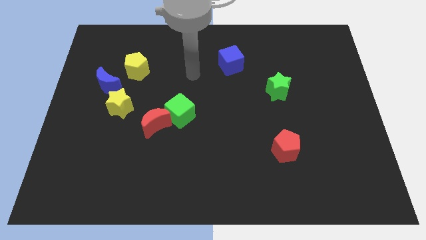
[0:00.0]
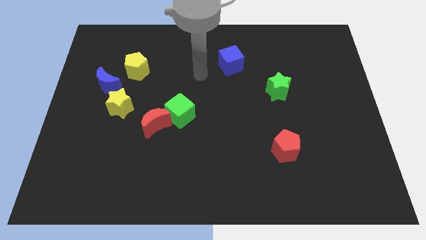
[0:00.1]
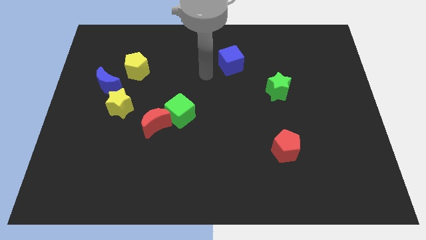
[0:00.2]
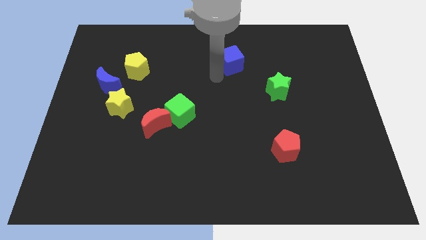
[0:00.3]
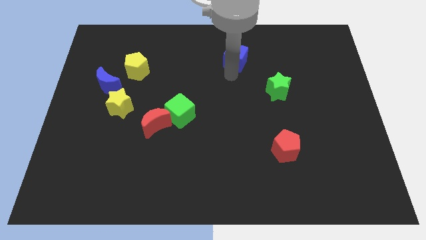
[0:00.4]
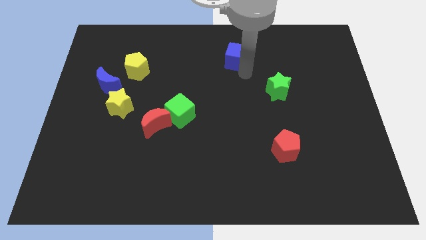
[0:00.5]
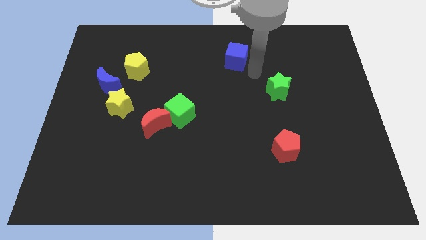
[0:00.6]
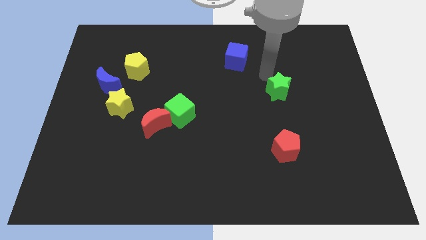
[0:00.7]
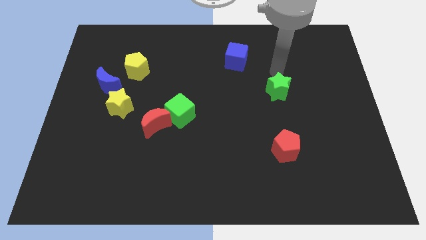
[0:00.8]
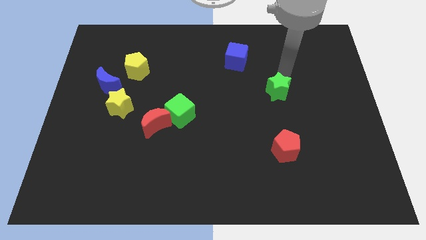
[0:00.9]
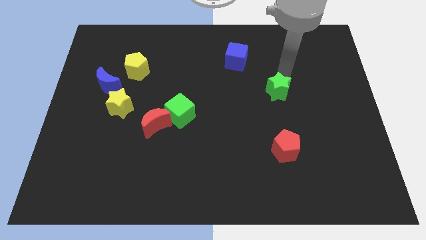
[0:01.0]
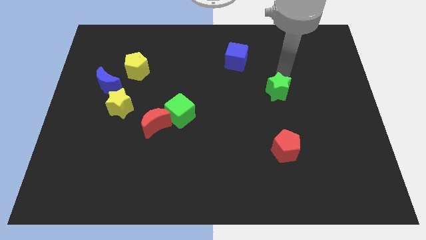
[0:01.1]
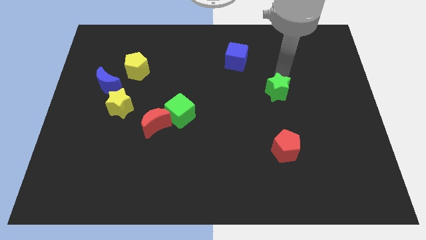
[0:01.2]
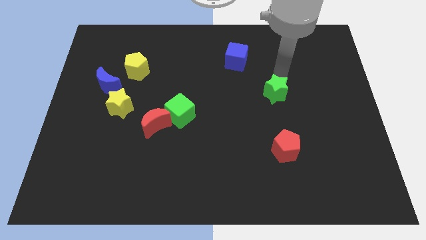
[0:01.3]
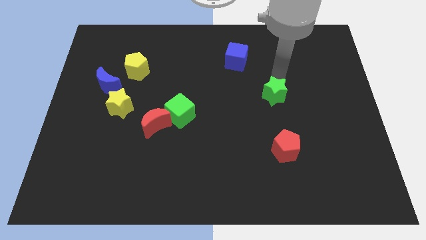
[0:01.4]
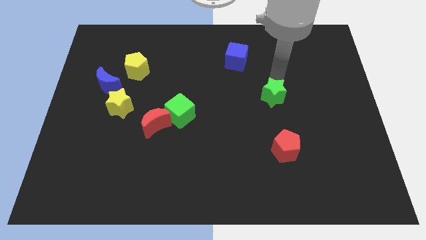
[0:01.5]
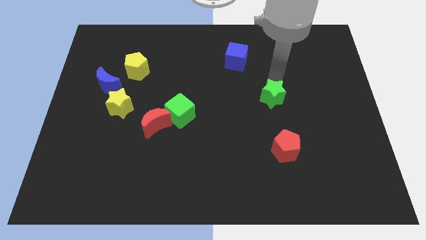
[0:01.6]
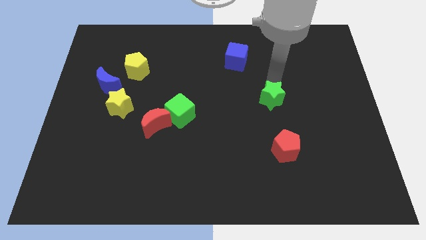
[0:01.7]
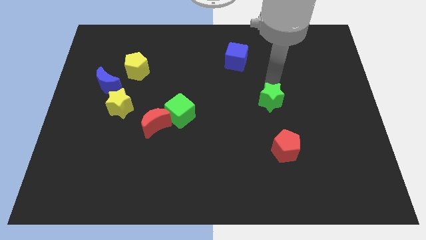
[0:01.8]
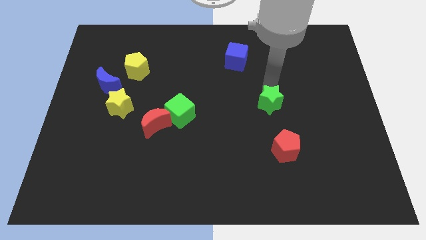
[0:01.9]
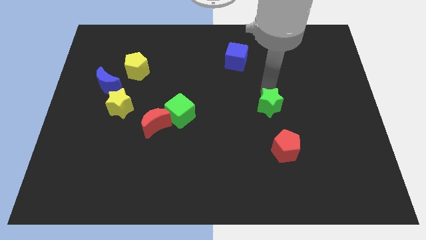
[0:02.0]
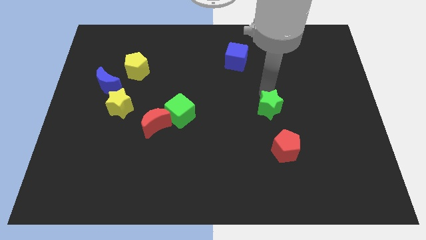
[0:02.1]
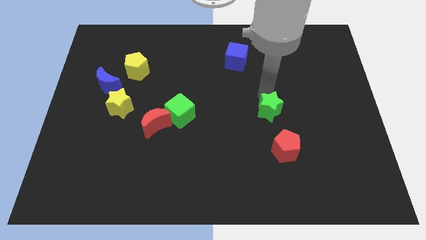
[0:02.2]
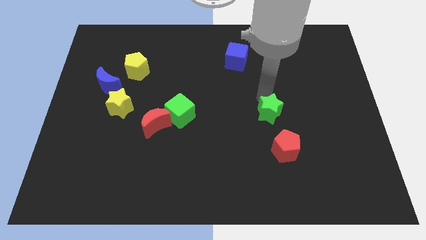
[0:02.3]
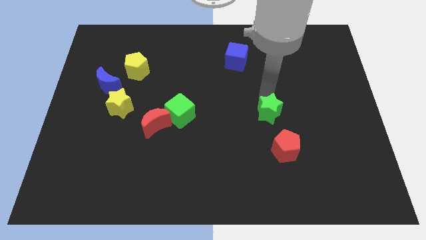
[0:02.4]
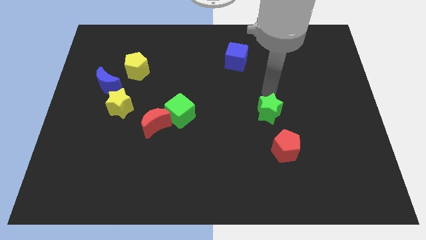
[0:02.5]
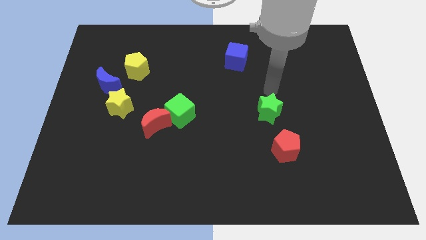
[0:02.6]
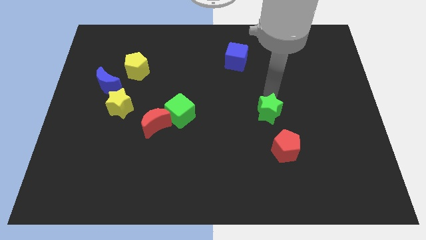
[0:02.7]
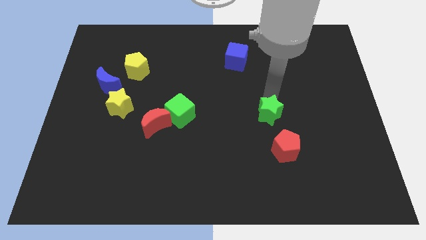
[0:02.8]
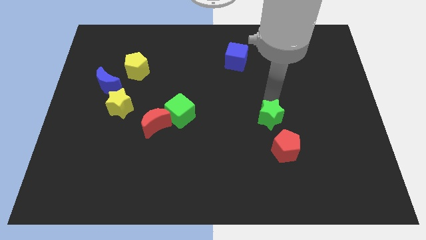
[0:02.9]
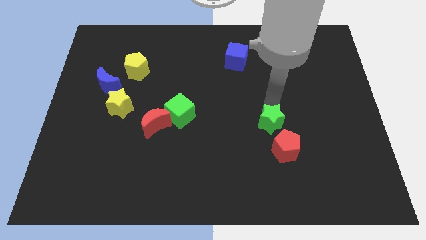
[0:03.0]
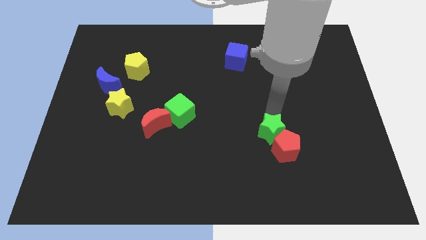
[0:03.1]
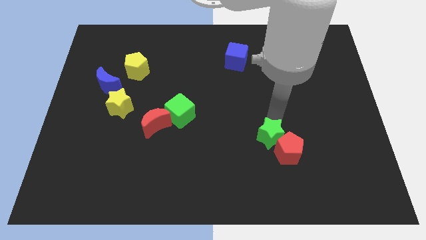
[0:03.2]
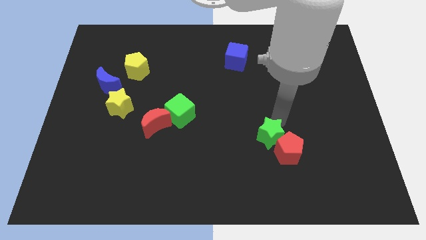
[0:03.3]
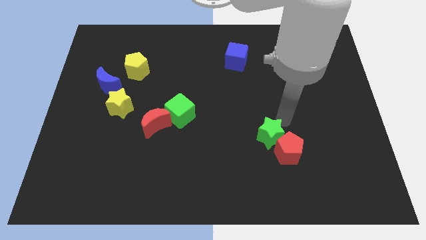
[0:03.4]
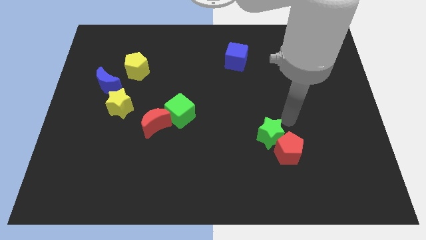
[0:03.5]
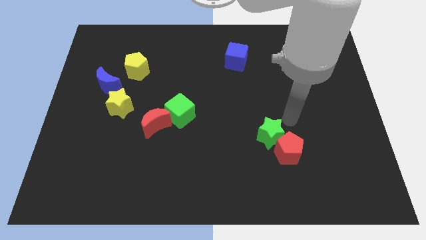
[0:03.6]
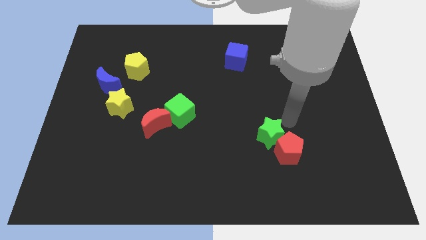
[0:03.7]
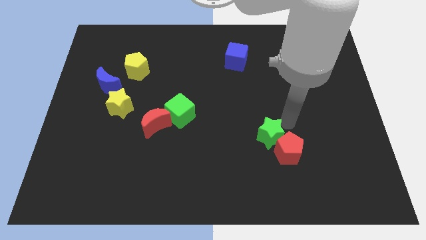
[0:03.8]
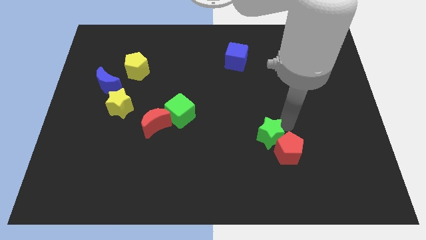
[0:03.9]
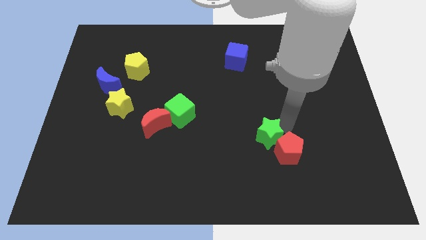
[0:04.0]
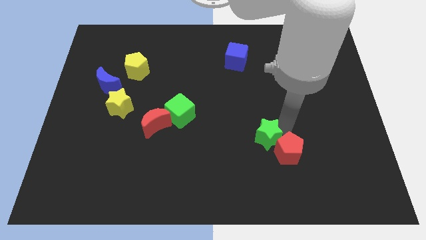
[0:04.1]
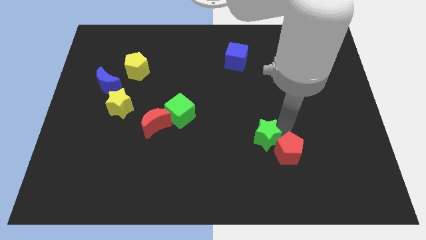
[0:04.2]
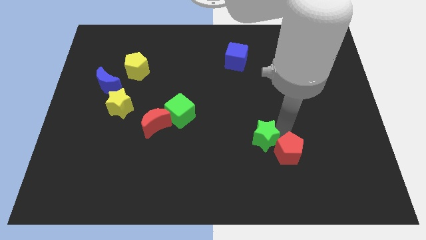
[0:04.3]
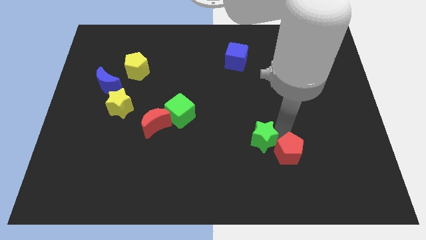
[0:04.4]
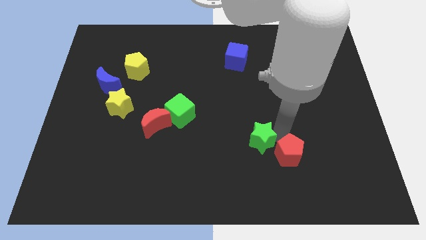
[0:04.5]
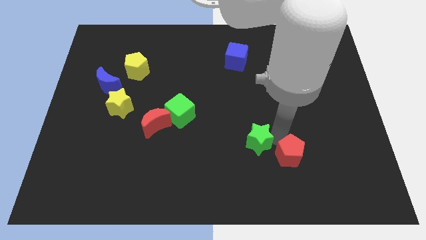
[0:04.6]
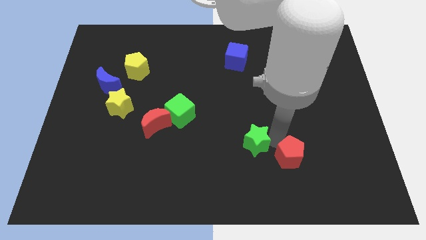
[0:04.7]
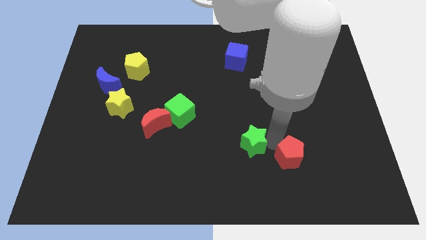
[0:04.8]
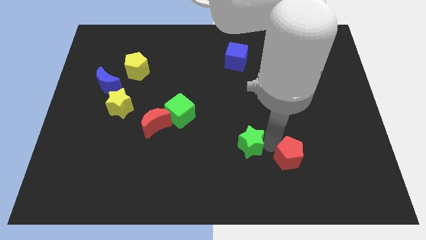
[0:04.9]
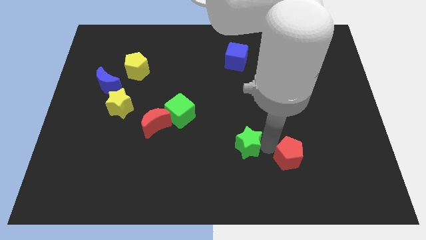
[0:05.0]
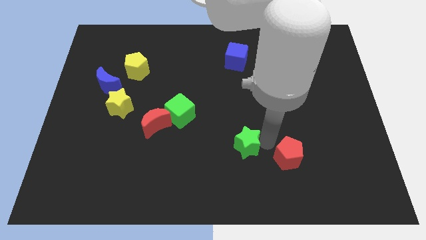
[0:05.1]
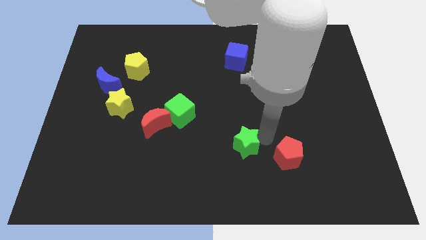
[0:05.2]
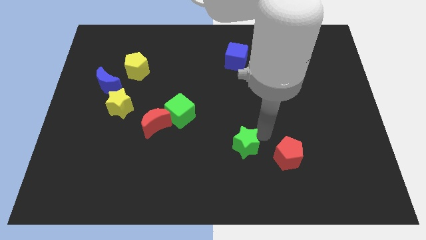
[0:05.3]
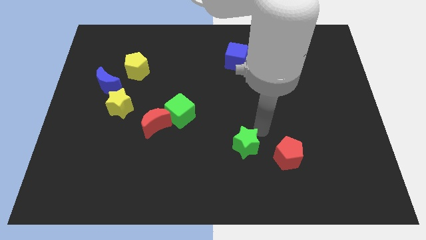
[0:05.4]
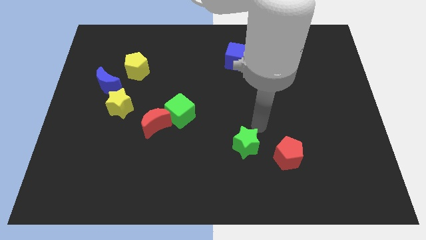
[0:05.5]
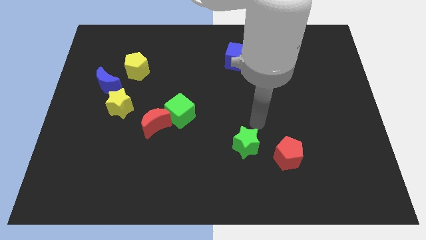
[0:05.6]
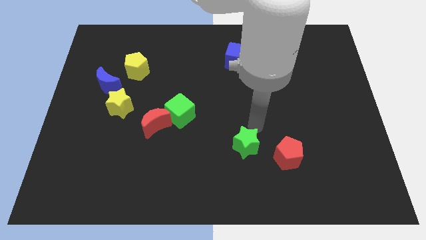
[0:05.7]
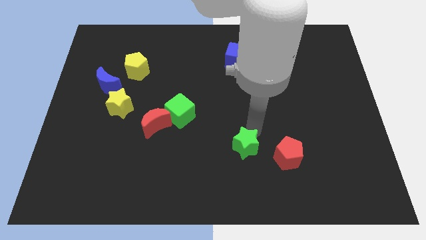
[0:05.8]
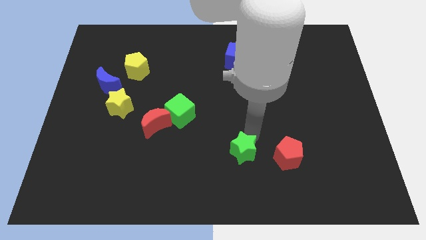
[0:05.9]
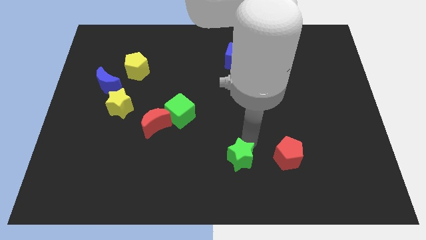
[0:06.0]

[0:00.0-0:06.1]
push the green star to the bottom side

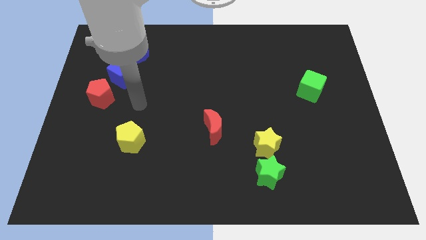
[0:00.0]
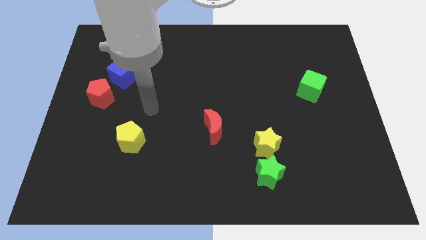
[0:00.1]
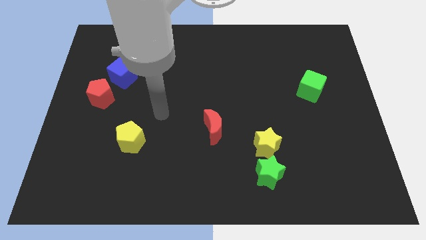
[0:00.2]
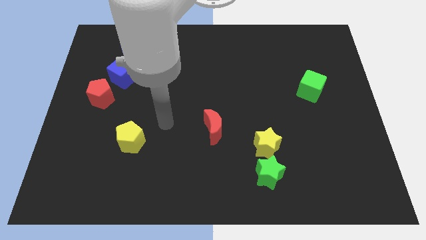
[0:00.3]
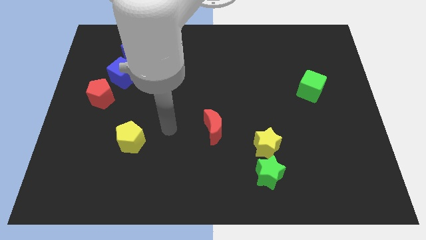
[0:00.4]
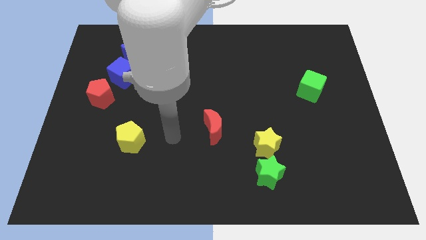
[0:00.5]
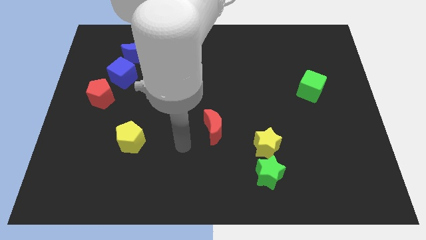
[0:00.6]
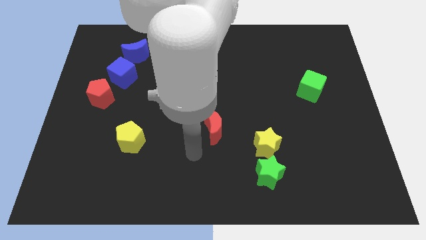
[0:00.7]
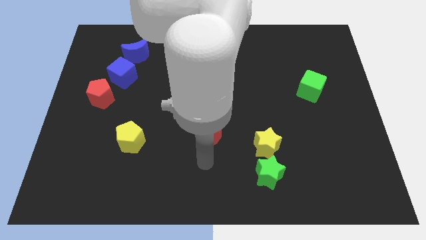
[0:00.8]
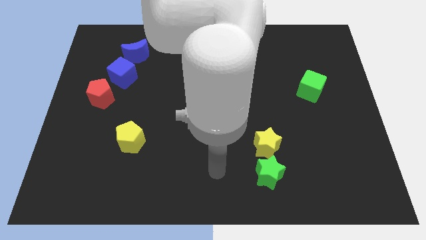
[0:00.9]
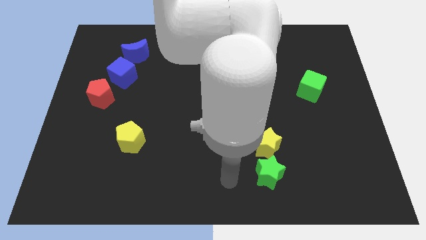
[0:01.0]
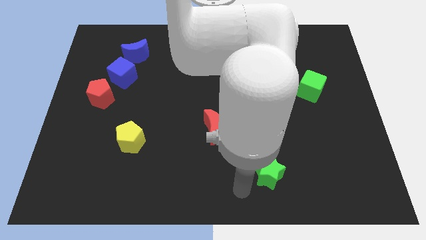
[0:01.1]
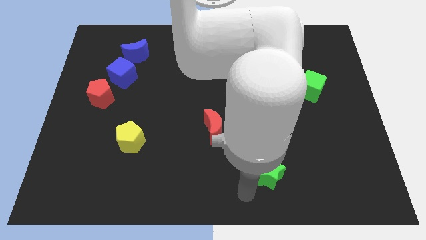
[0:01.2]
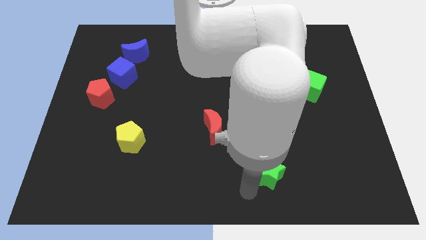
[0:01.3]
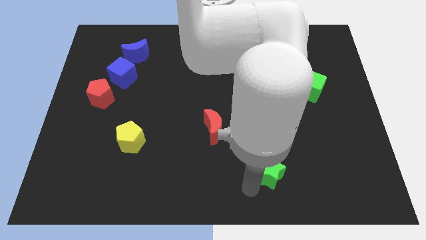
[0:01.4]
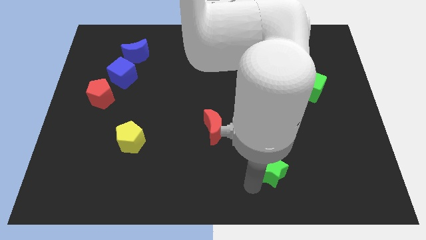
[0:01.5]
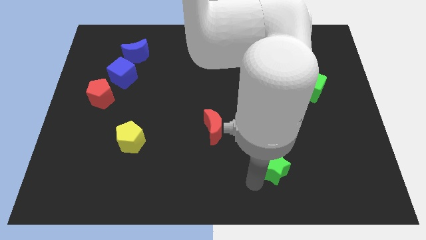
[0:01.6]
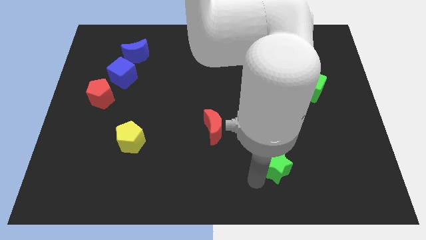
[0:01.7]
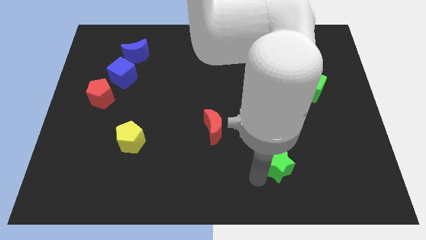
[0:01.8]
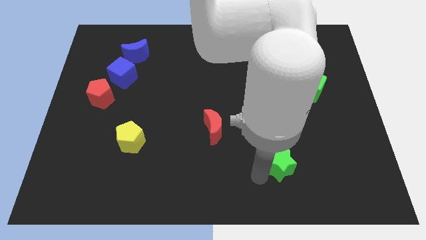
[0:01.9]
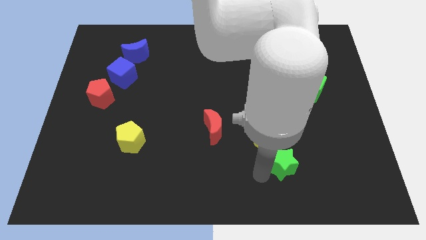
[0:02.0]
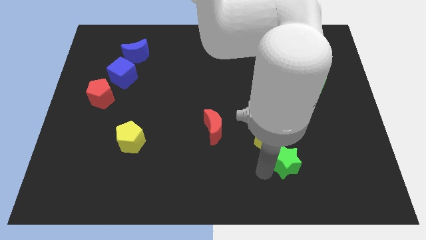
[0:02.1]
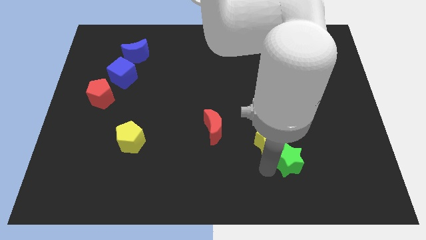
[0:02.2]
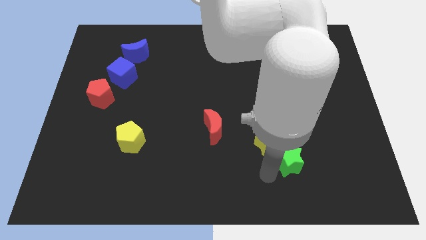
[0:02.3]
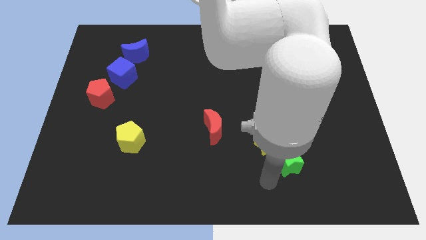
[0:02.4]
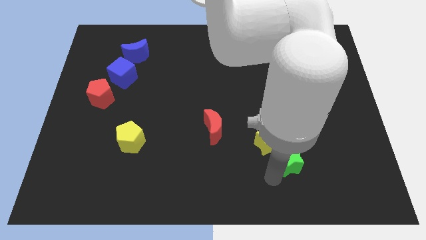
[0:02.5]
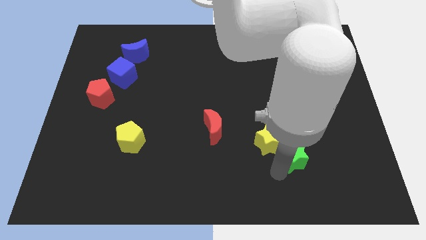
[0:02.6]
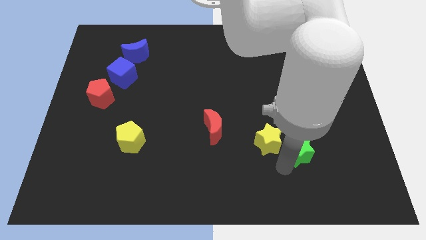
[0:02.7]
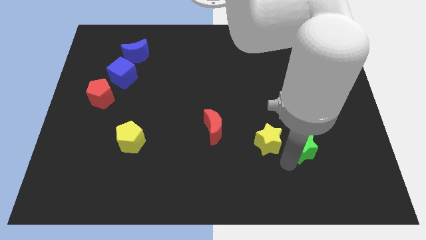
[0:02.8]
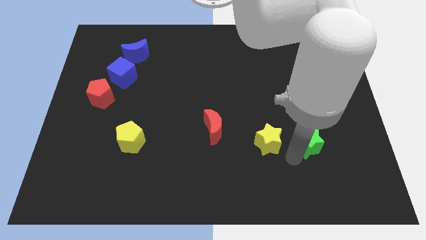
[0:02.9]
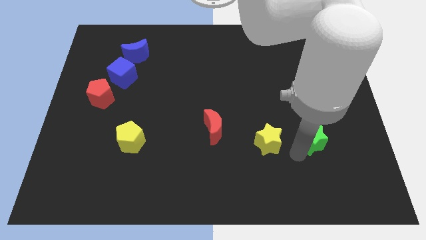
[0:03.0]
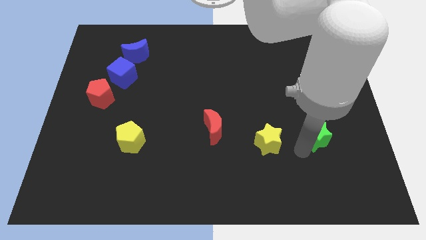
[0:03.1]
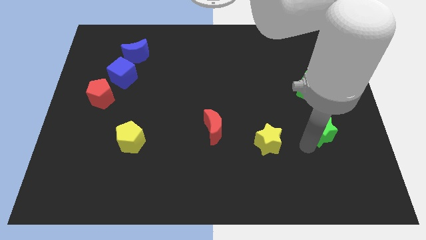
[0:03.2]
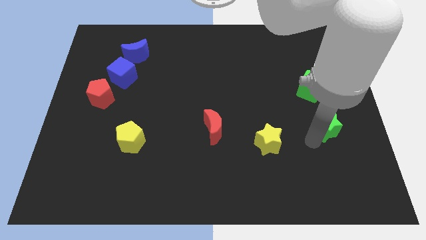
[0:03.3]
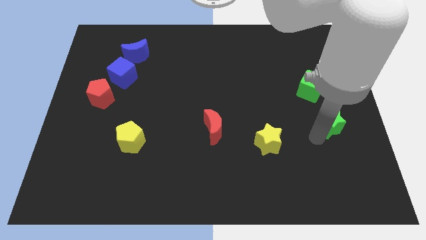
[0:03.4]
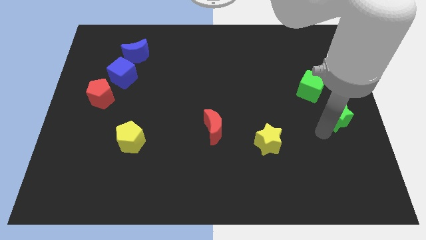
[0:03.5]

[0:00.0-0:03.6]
put the green star to the right side of the board
